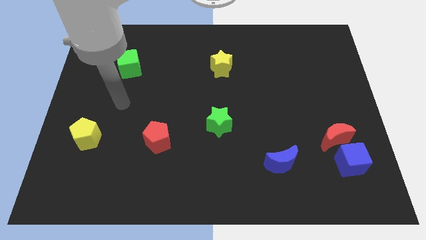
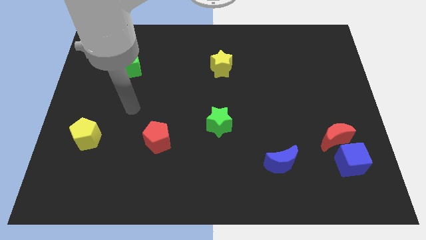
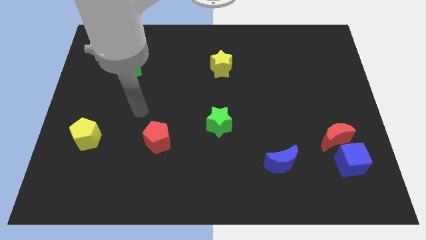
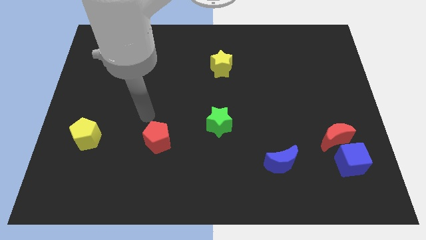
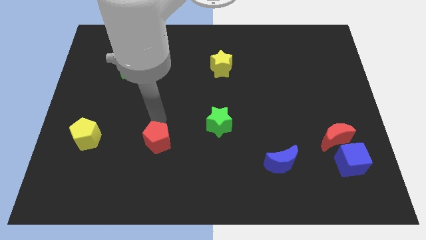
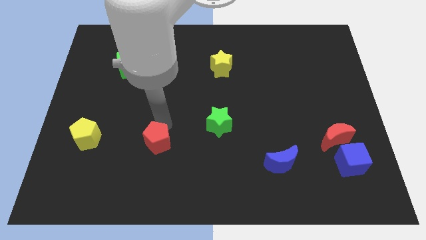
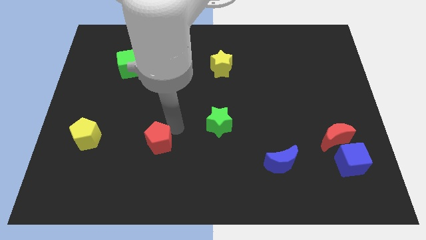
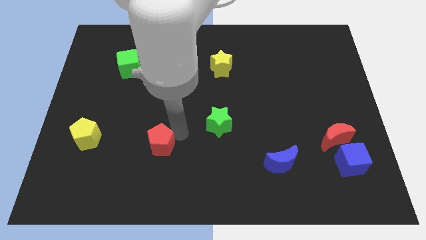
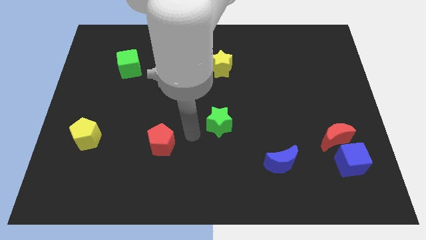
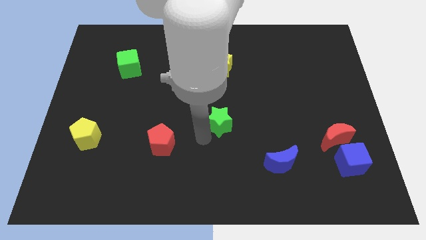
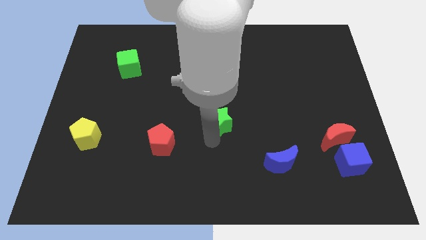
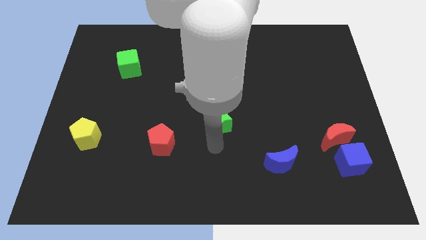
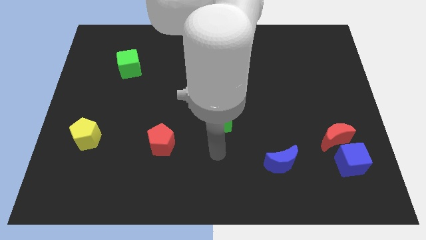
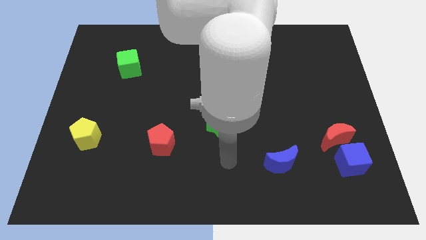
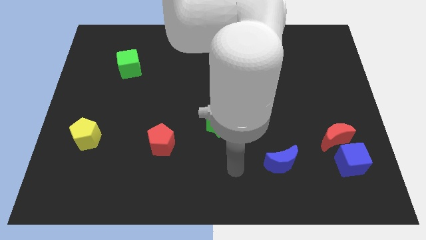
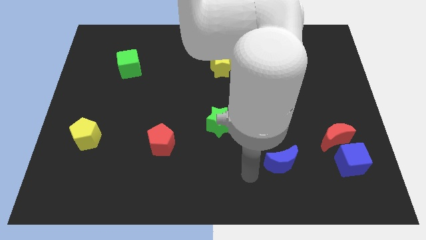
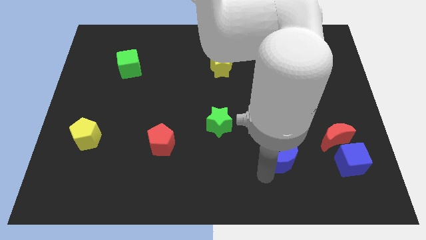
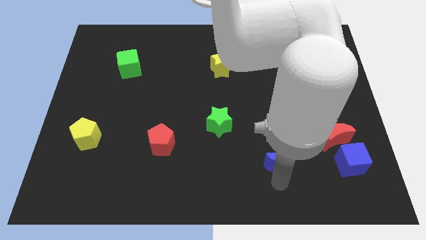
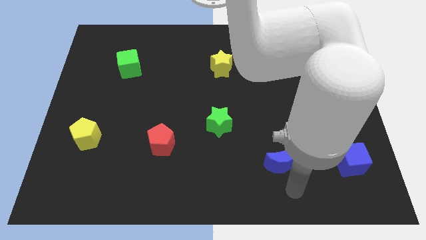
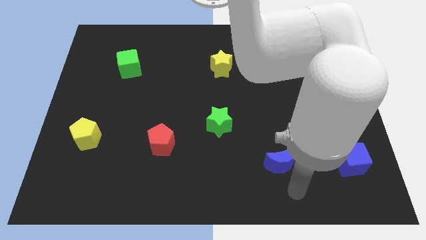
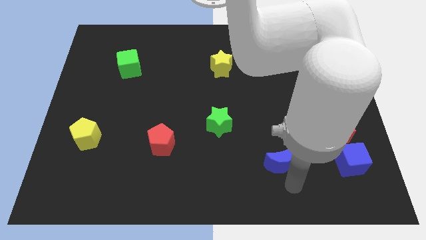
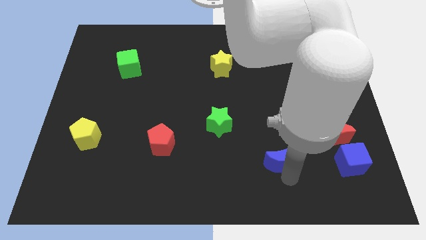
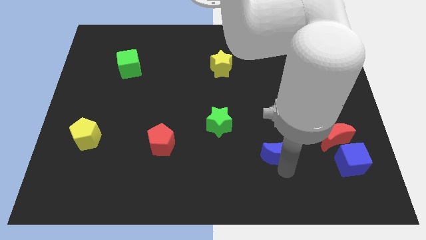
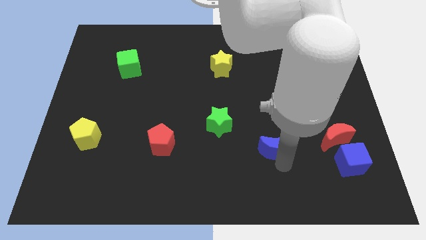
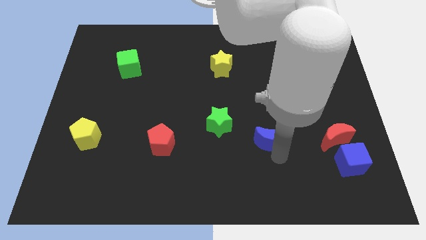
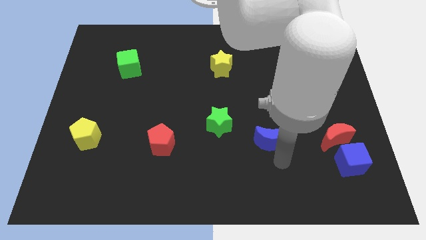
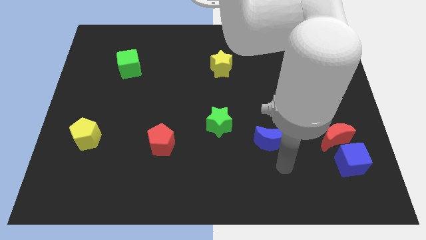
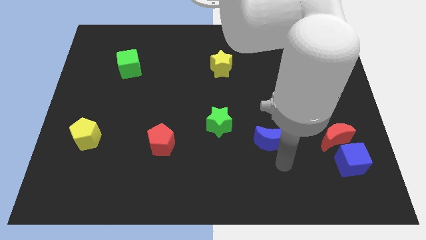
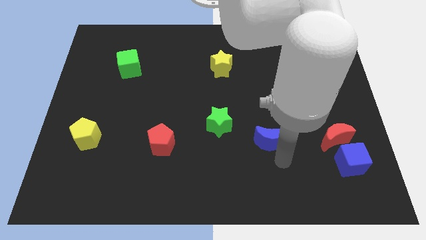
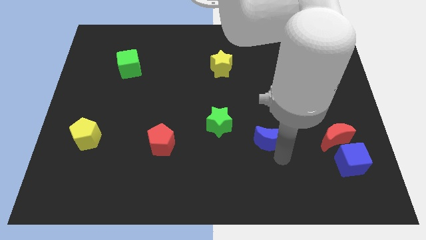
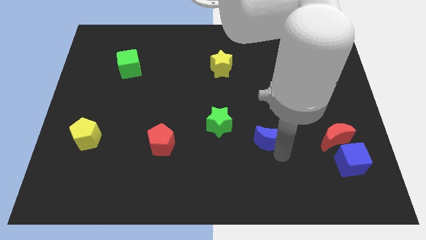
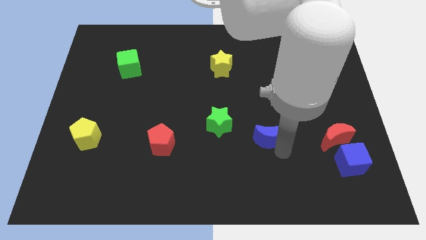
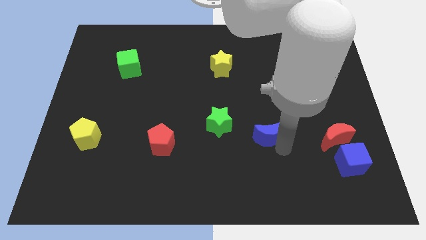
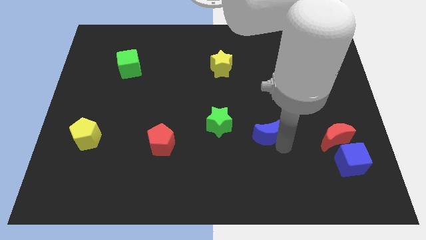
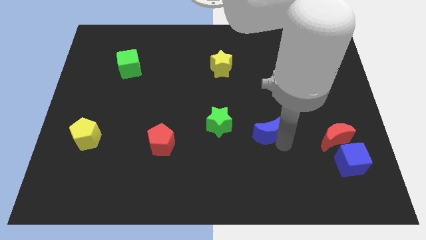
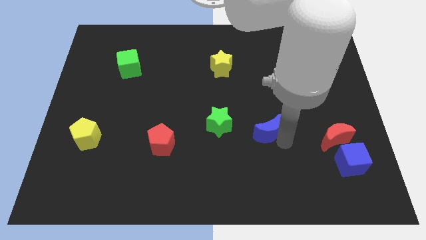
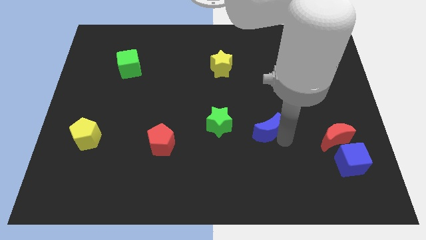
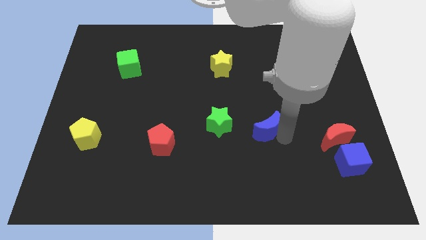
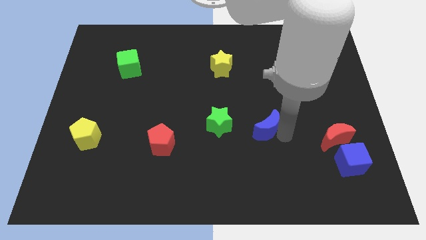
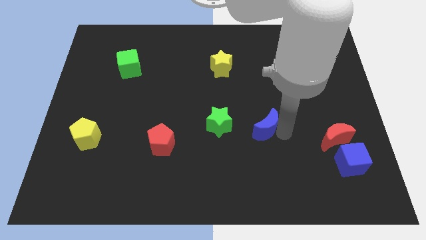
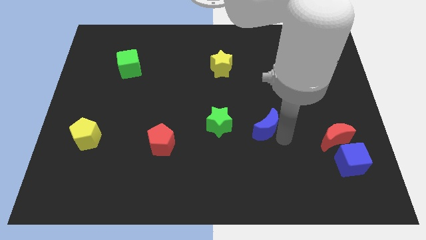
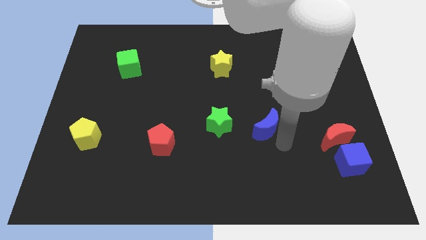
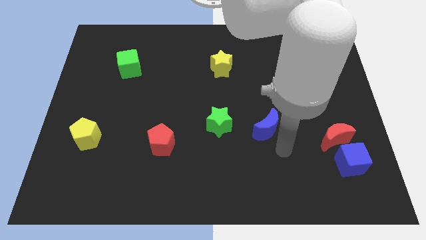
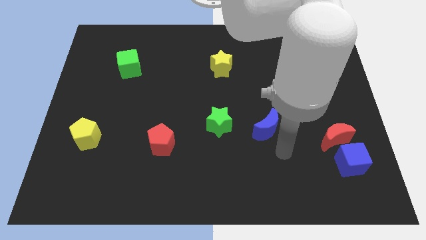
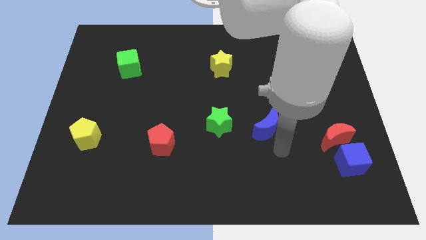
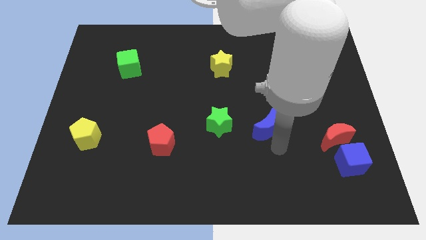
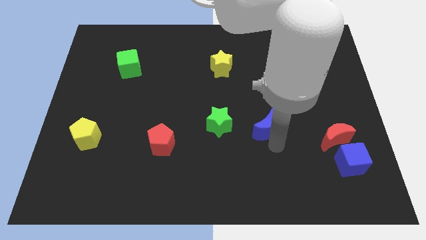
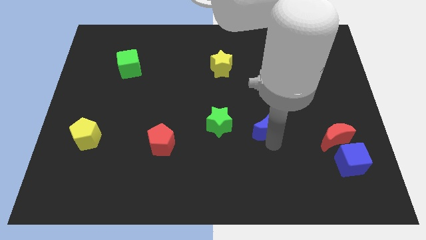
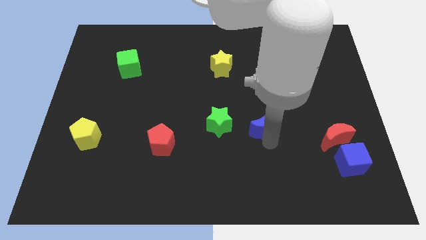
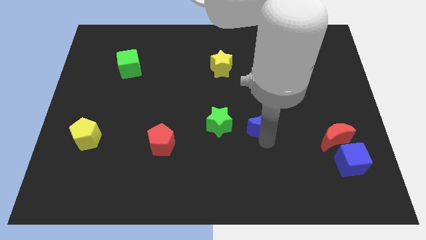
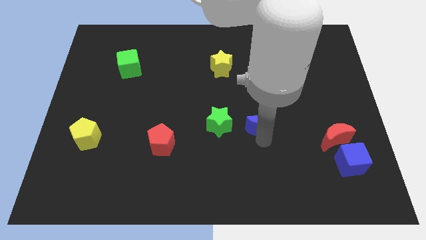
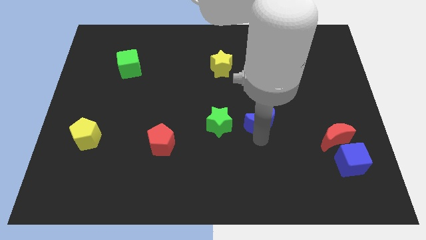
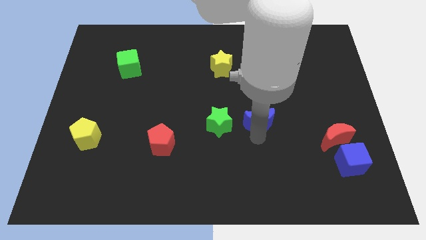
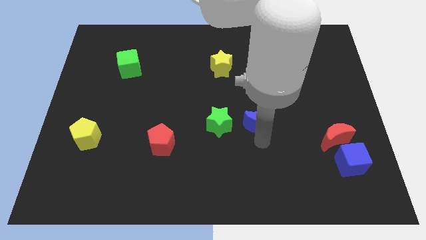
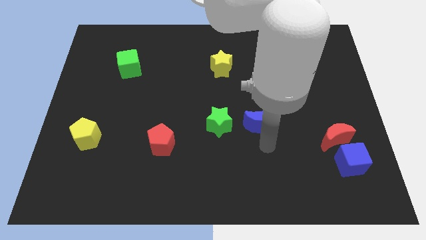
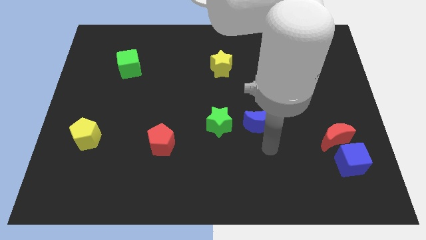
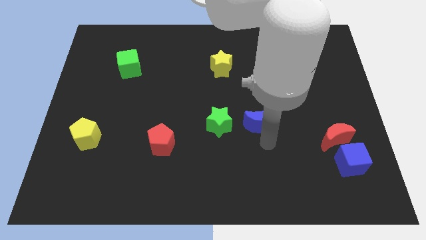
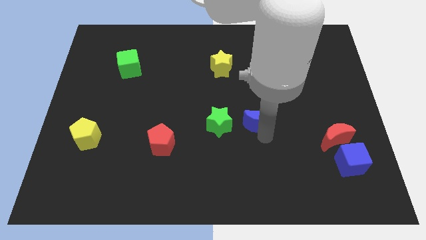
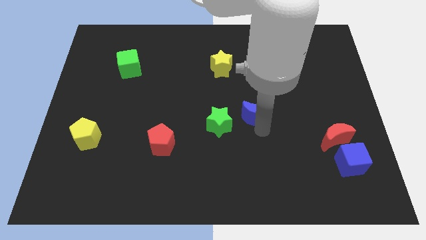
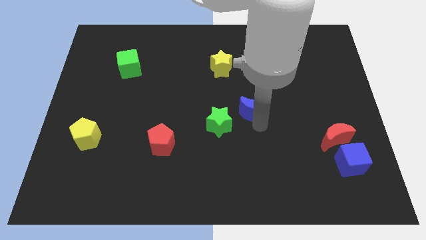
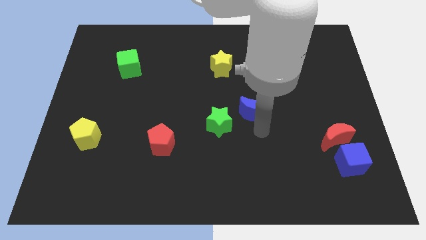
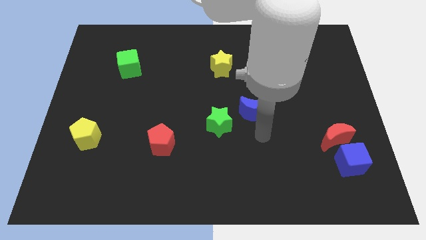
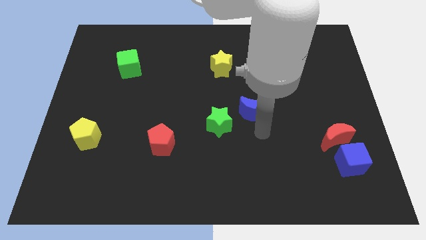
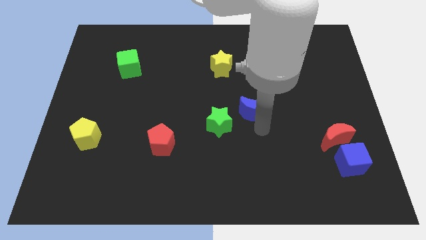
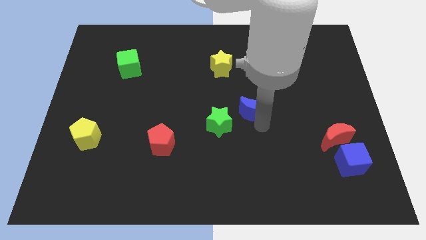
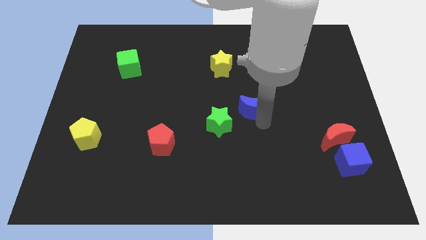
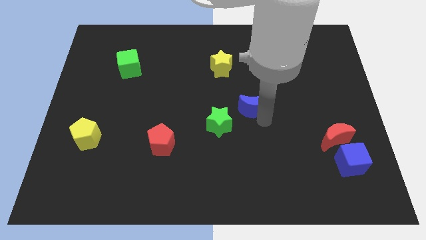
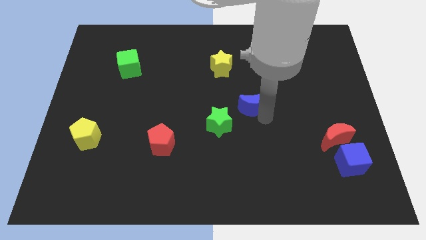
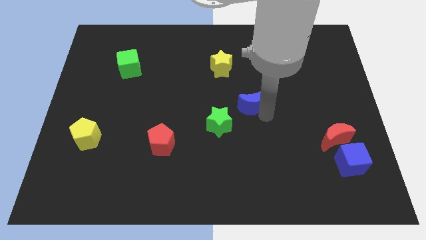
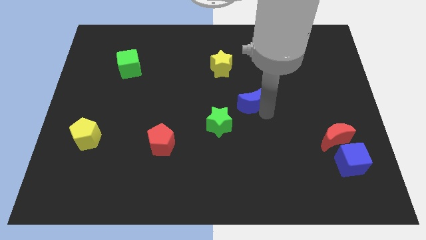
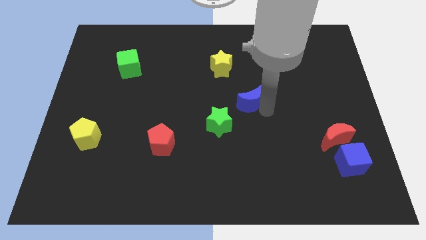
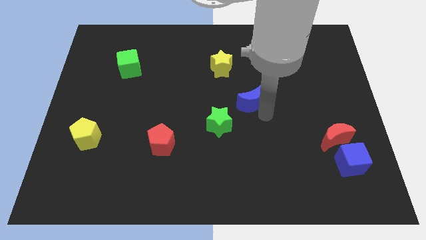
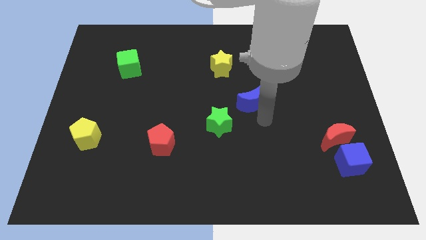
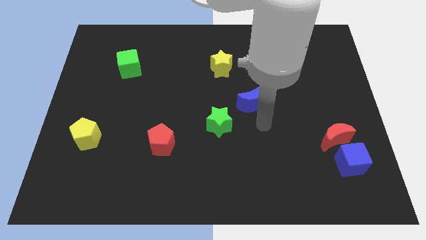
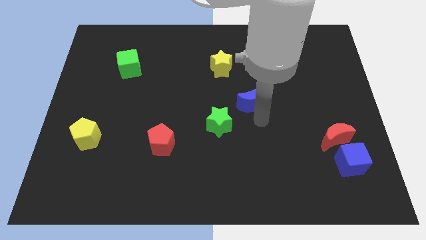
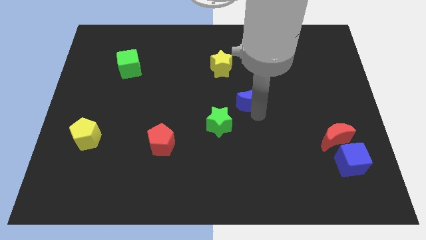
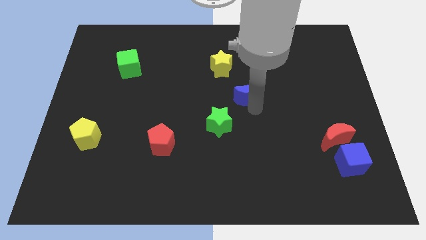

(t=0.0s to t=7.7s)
put the blue moon to the bottom right of the yellow star
